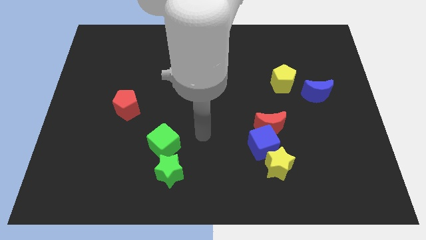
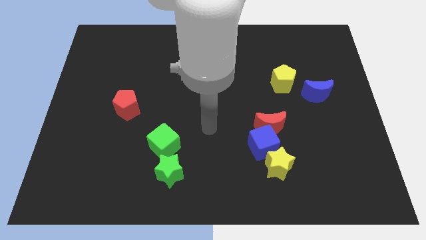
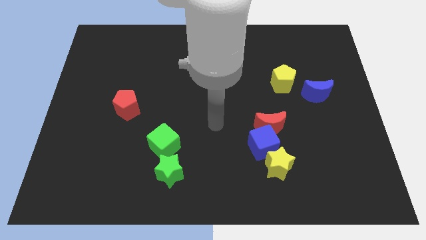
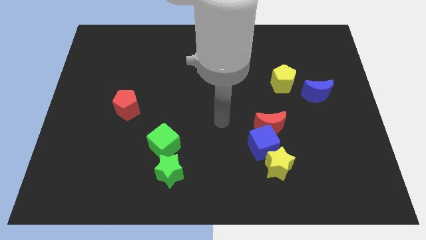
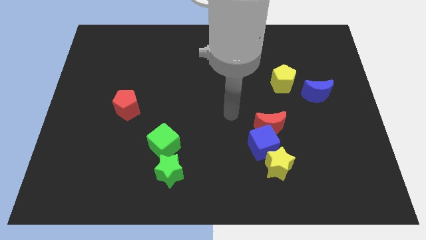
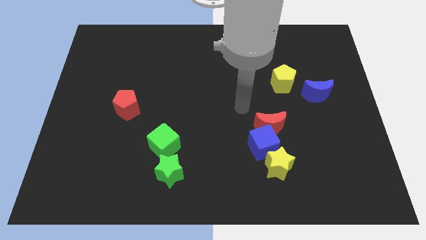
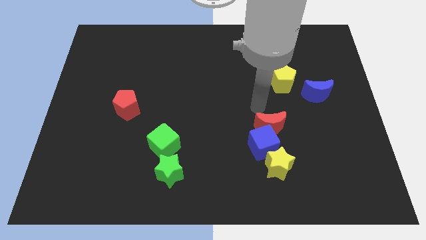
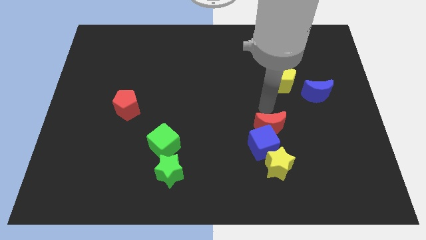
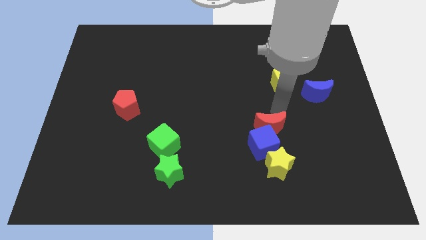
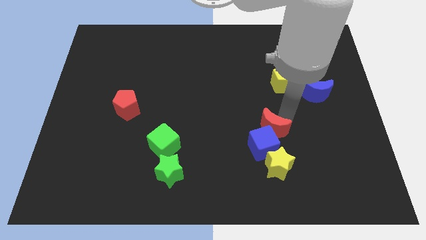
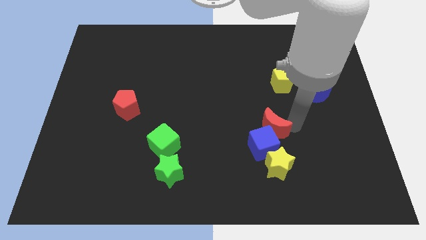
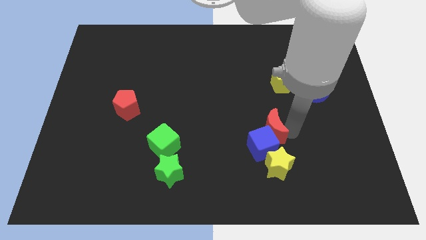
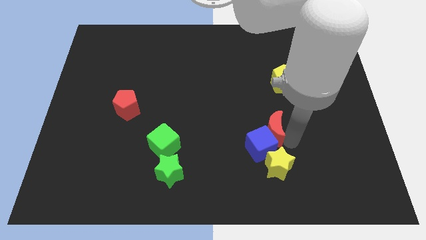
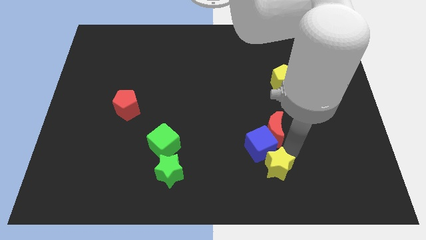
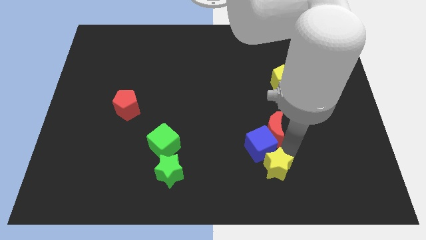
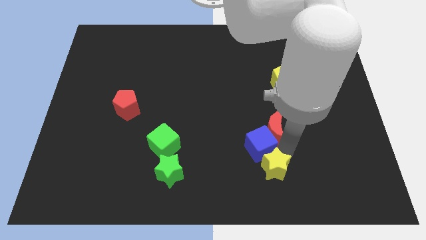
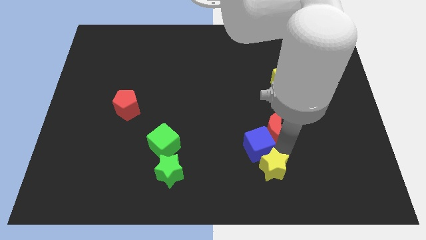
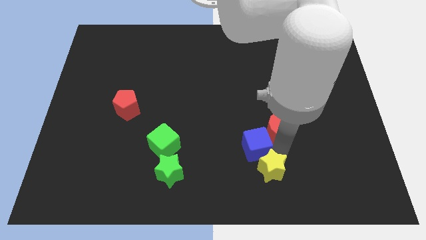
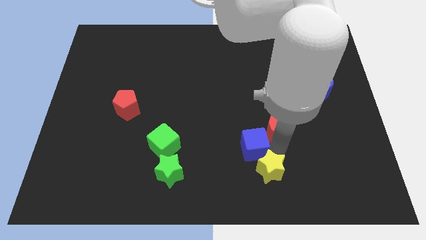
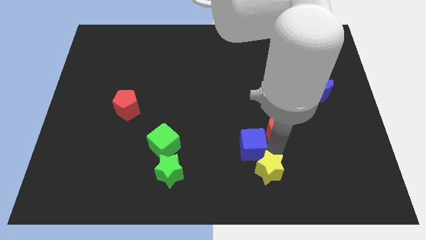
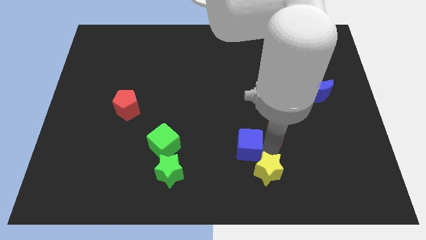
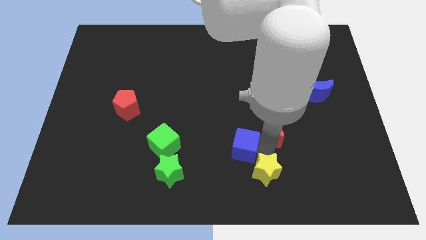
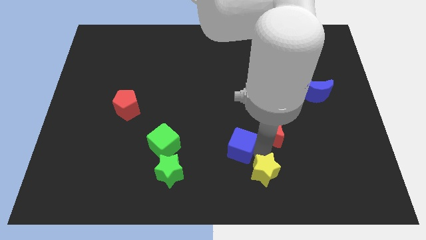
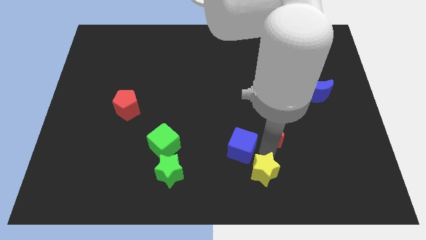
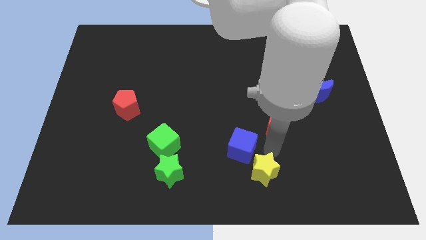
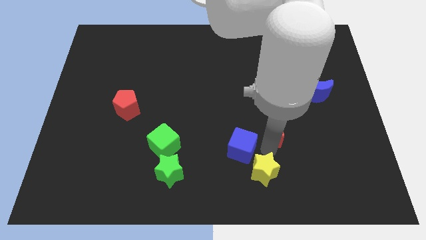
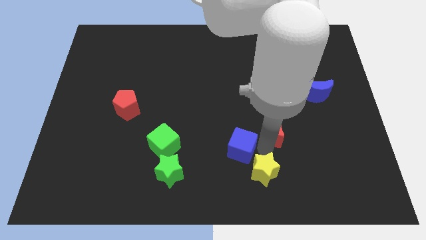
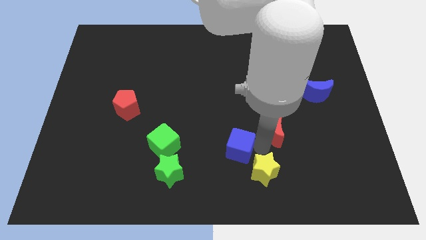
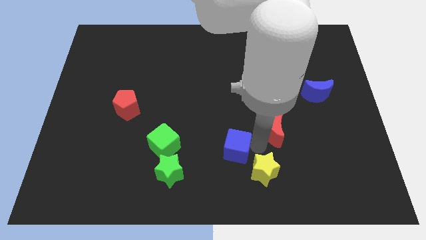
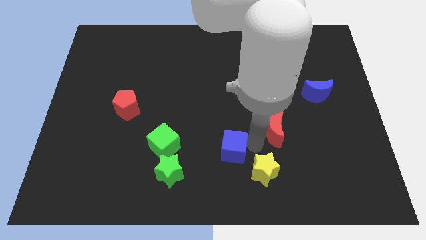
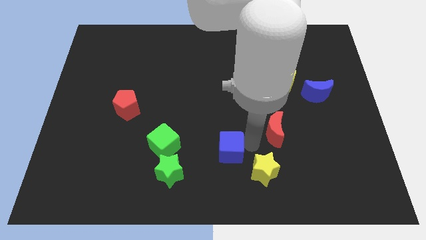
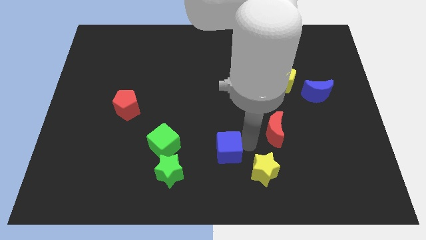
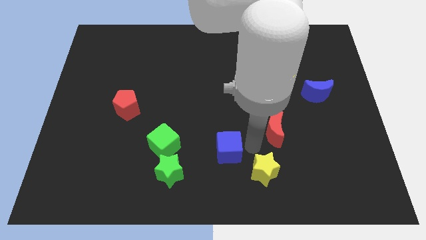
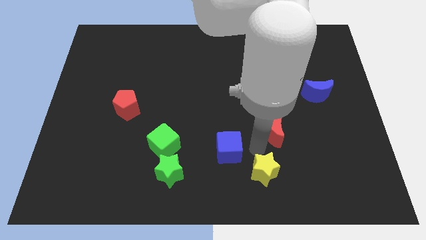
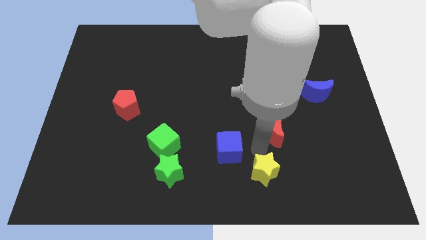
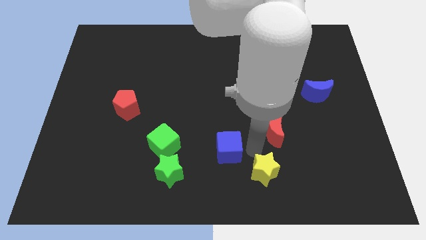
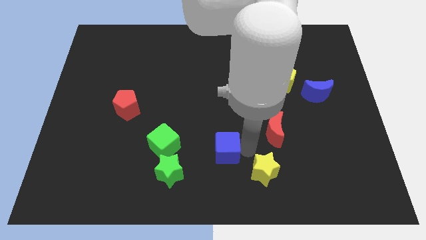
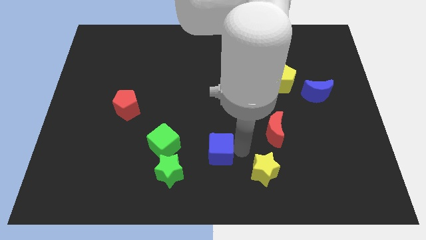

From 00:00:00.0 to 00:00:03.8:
separate the blue cube from the red moon and yellow star

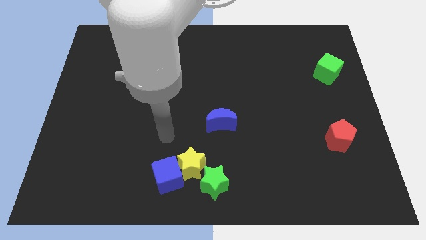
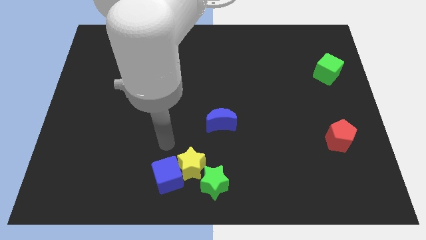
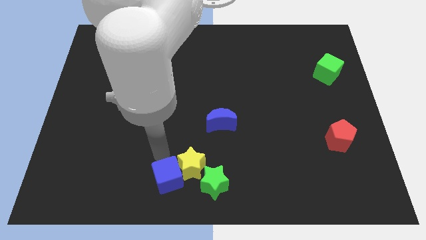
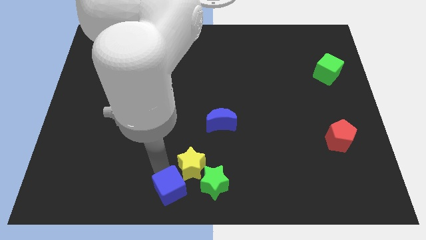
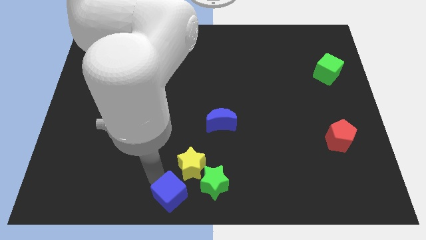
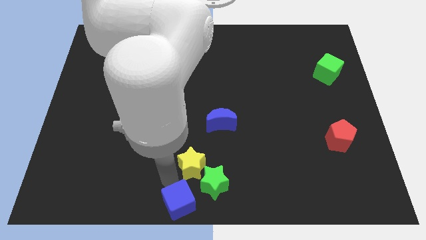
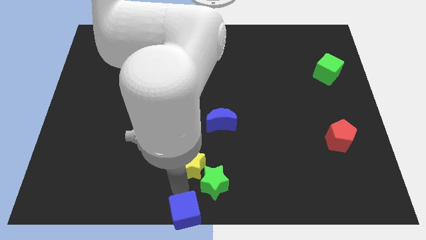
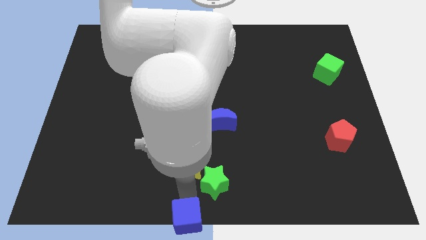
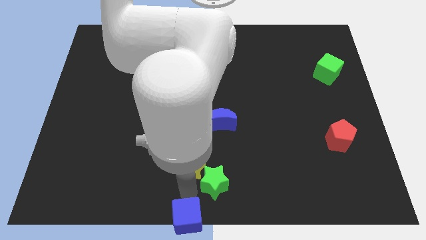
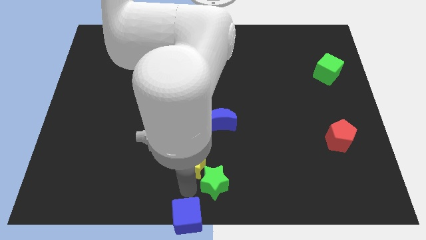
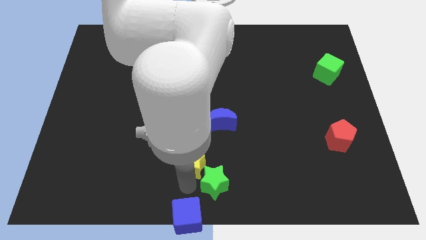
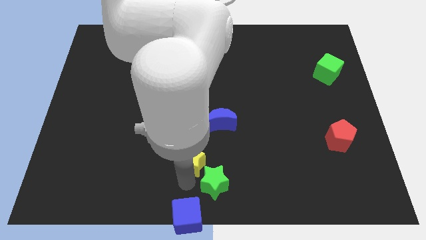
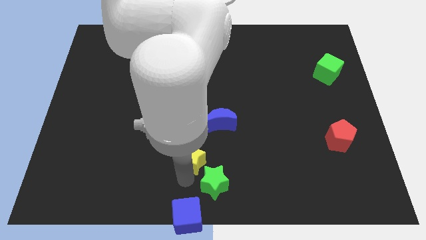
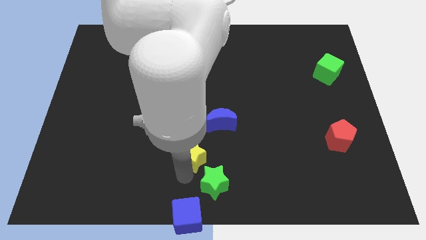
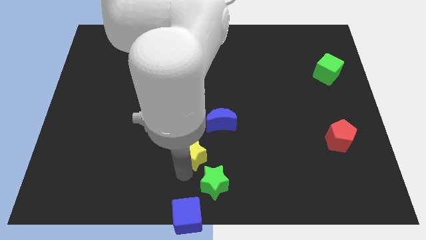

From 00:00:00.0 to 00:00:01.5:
move the yellow star away from the blue cube and green star

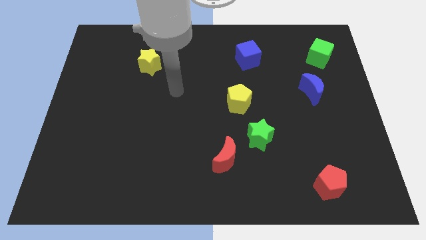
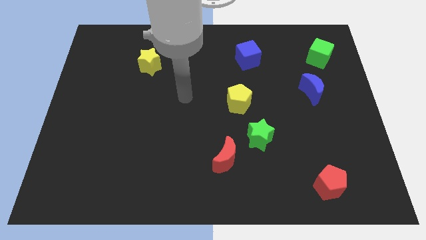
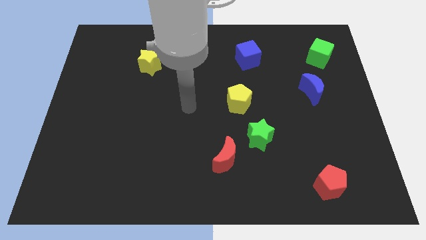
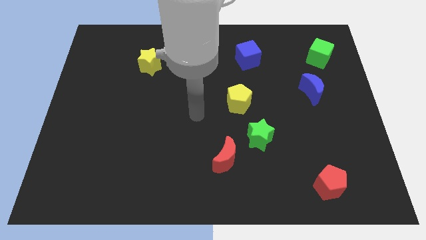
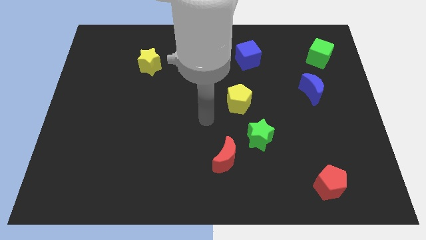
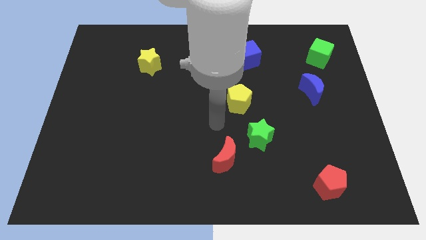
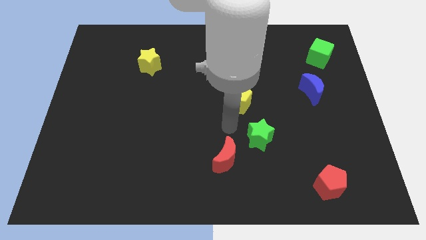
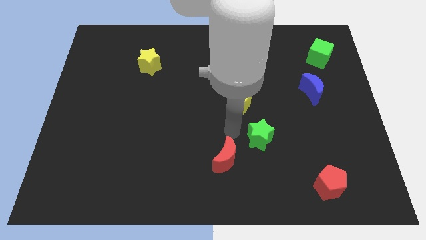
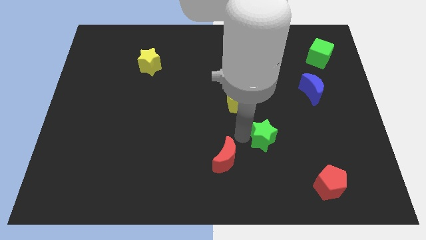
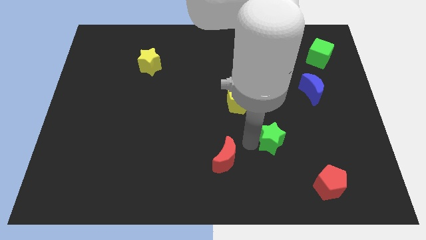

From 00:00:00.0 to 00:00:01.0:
move the red moon away from the green star

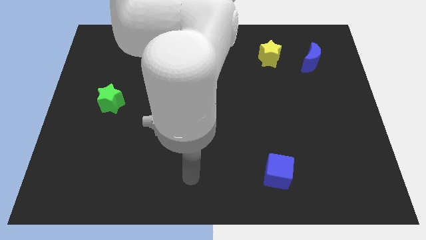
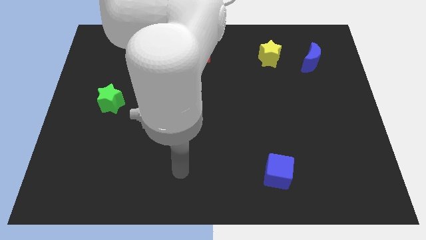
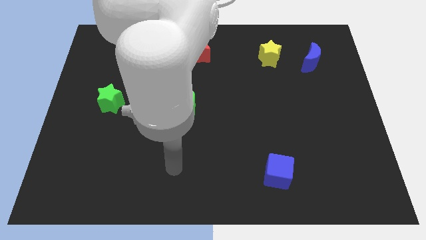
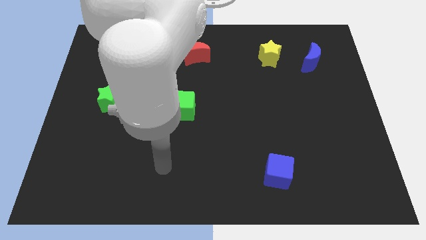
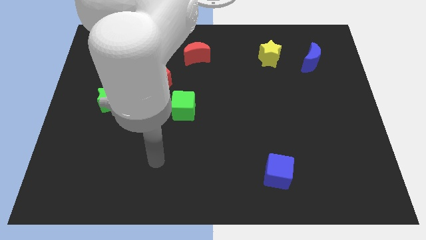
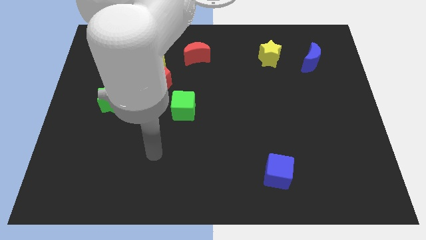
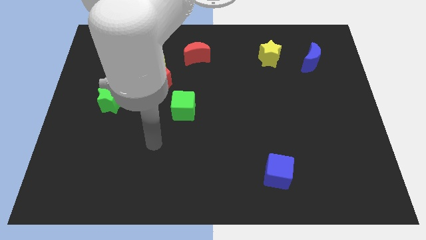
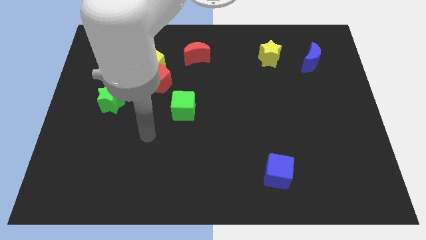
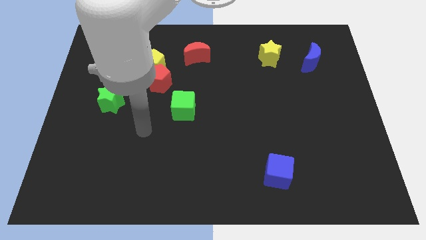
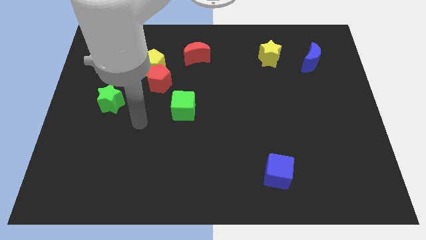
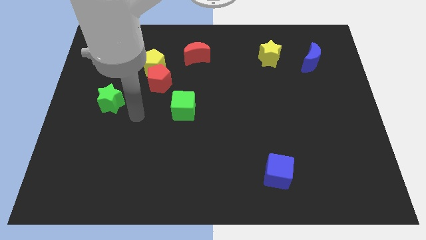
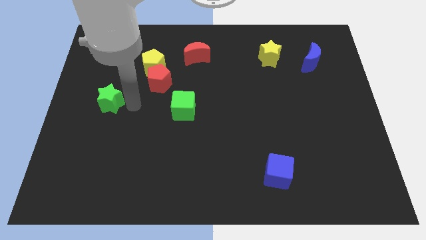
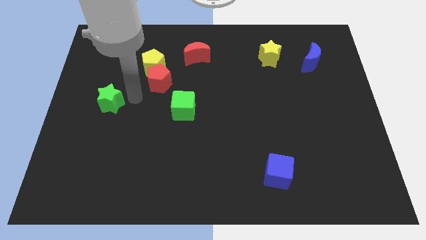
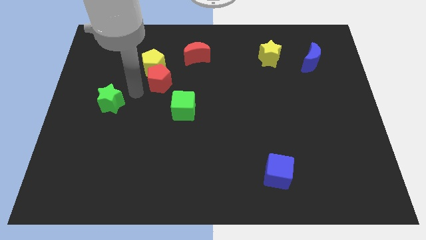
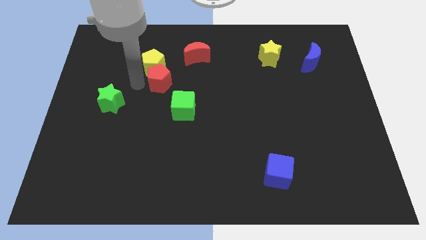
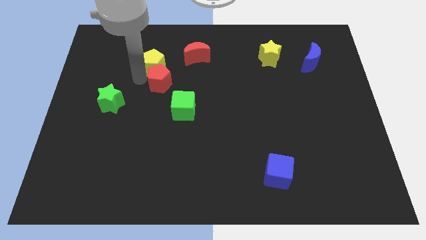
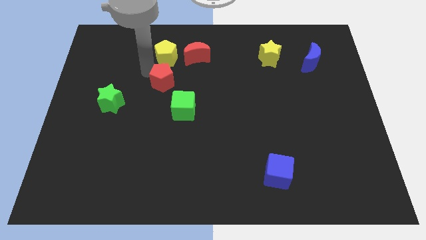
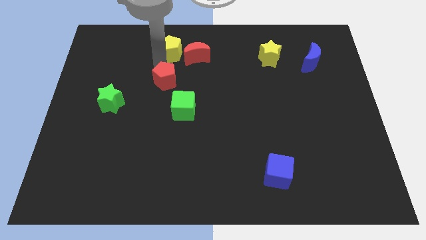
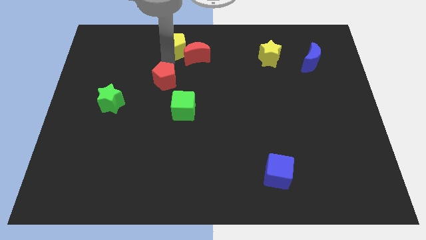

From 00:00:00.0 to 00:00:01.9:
separate the red pentagon from the yellow pentagon

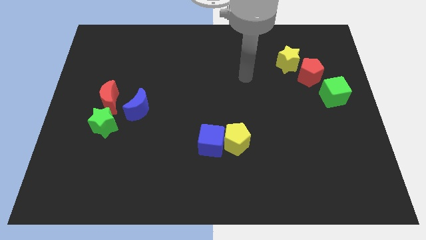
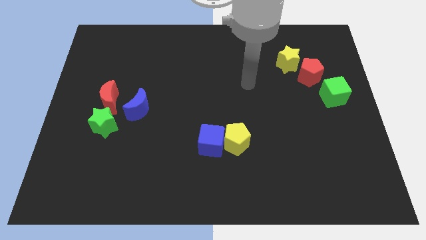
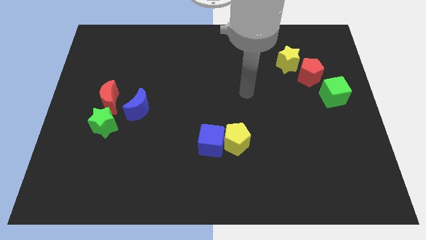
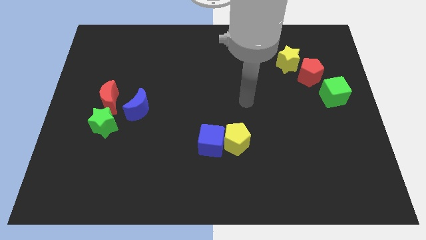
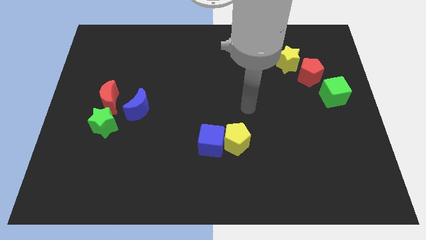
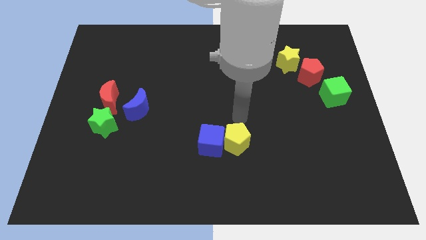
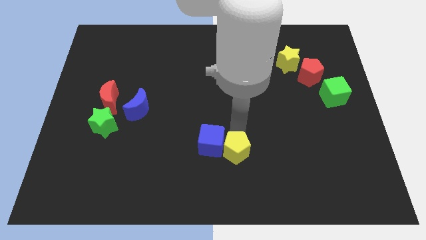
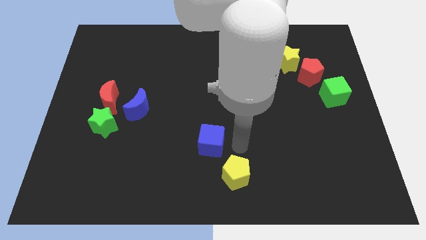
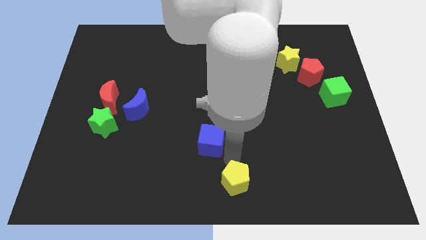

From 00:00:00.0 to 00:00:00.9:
separate the blue cube from the yellow pentagon

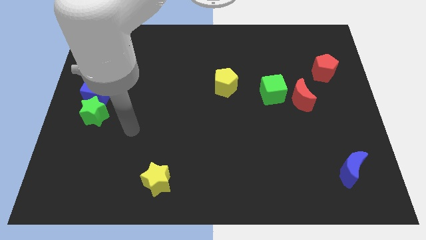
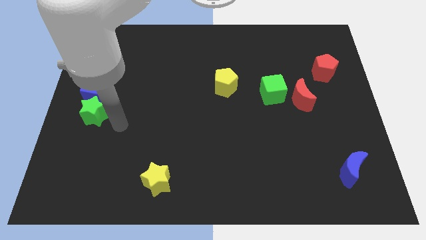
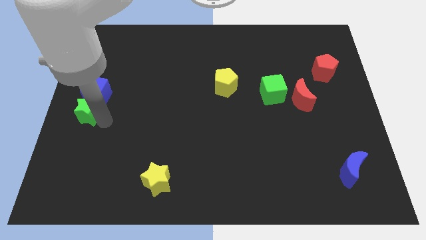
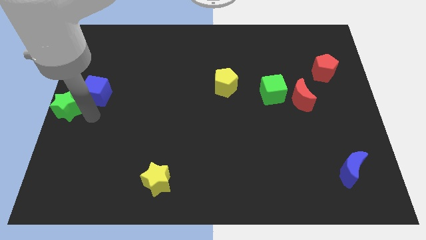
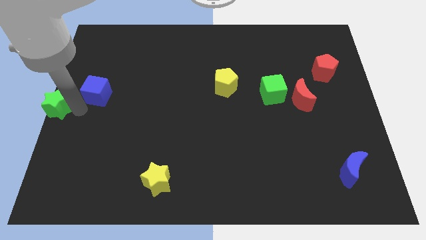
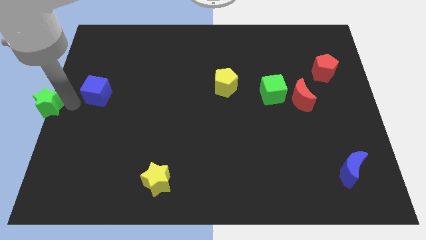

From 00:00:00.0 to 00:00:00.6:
pull the blue cube apart from the green star
